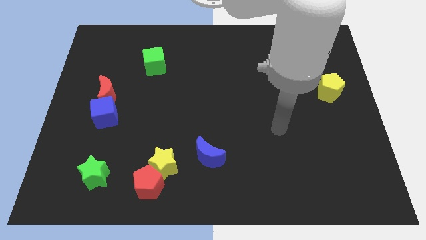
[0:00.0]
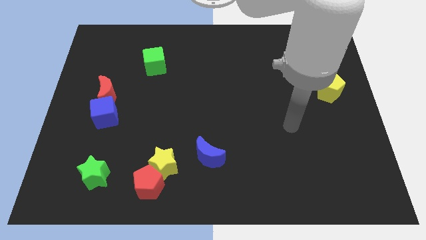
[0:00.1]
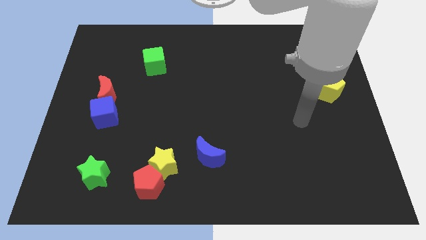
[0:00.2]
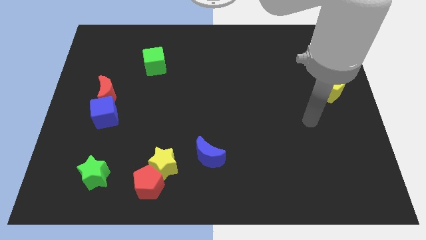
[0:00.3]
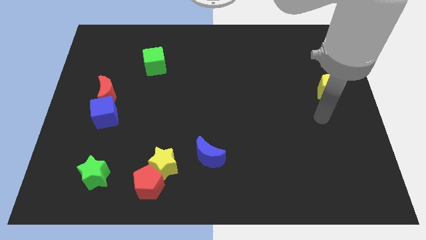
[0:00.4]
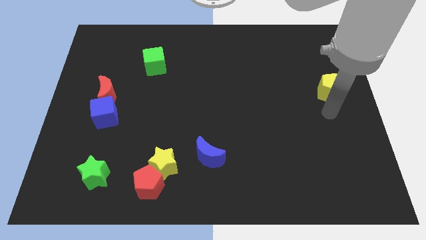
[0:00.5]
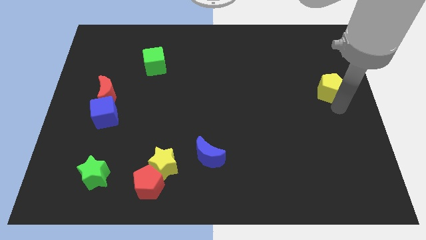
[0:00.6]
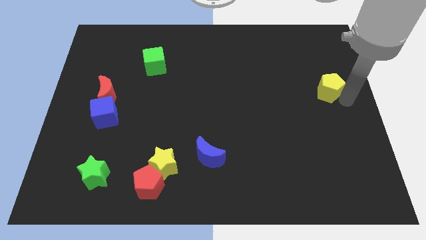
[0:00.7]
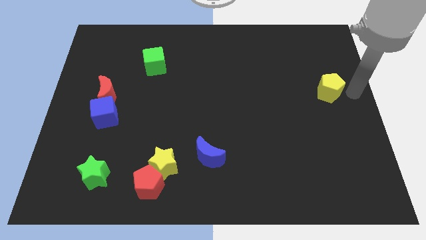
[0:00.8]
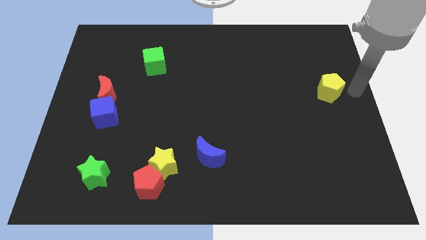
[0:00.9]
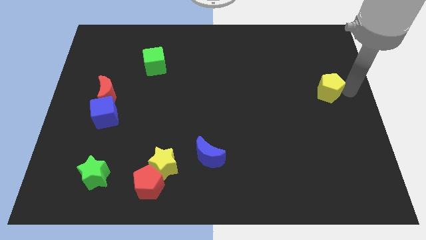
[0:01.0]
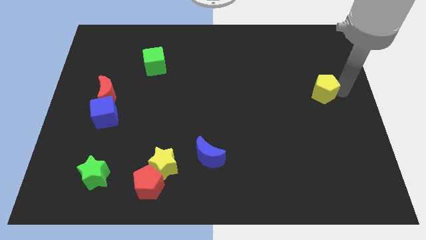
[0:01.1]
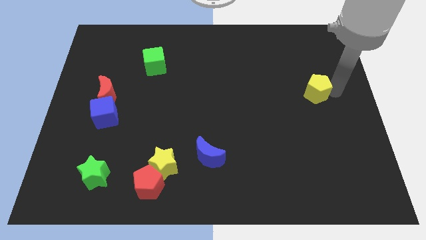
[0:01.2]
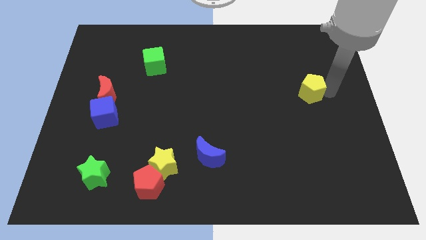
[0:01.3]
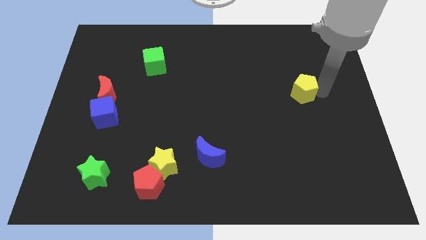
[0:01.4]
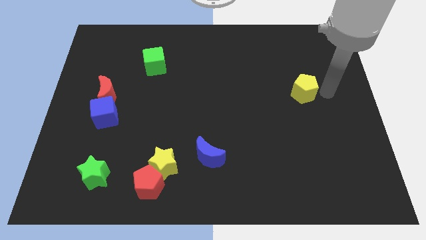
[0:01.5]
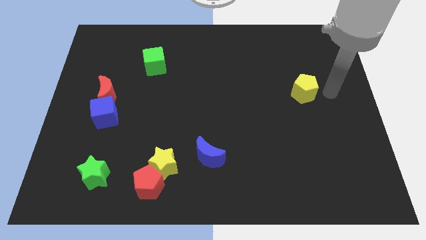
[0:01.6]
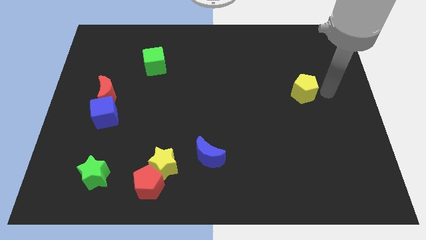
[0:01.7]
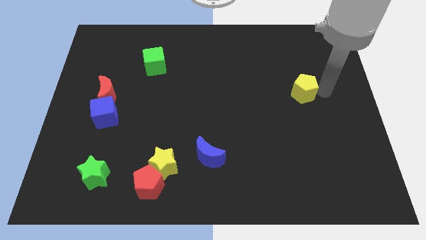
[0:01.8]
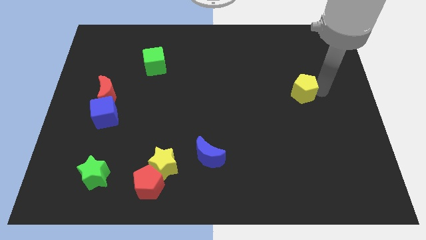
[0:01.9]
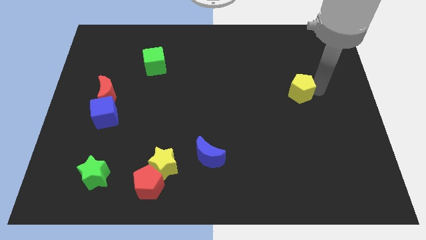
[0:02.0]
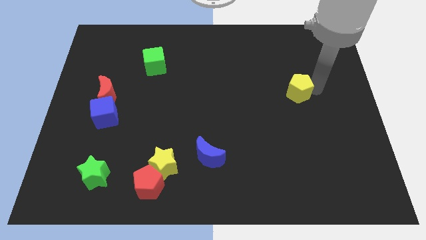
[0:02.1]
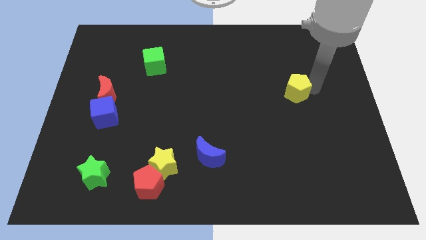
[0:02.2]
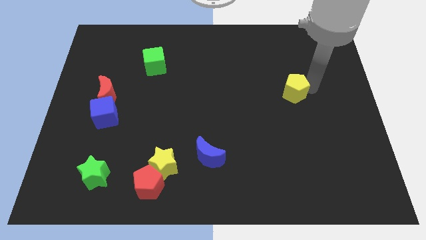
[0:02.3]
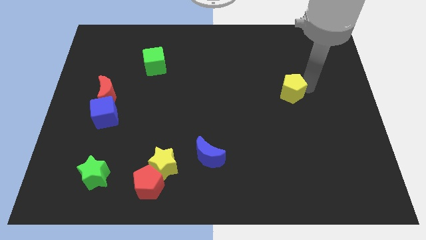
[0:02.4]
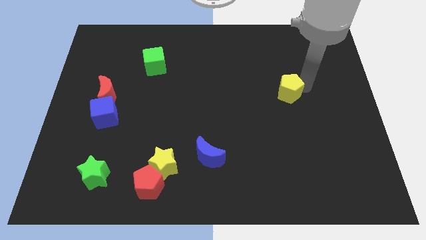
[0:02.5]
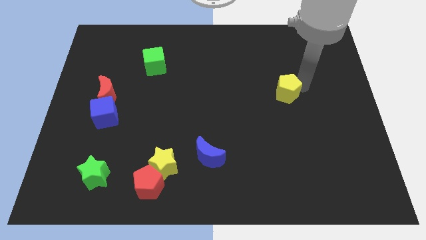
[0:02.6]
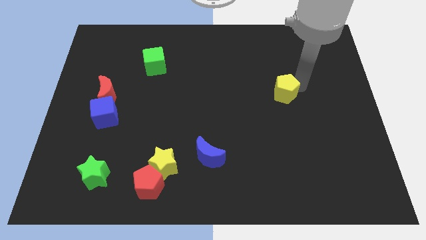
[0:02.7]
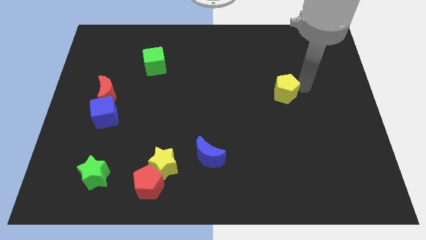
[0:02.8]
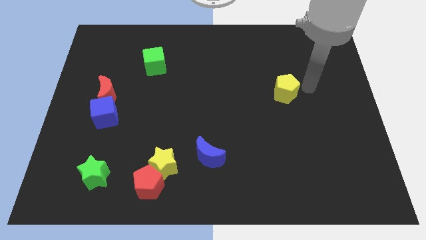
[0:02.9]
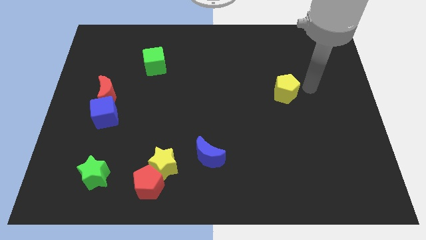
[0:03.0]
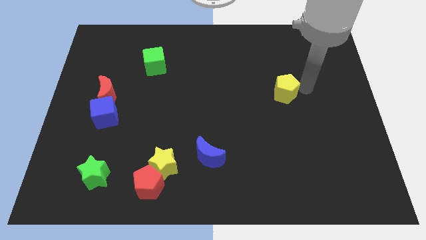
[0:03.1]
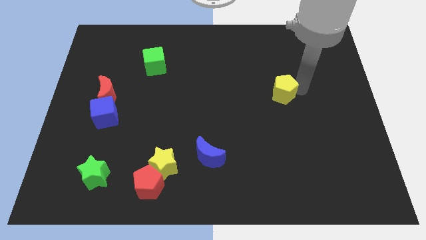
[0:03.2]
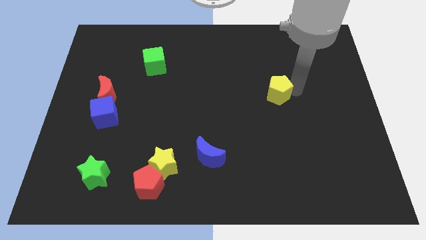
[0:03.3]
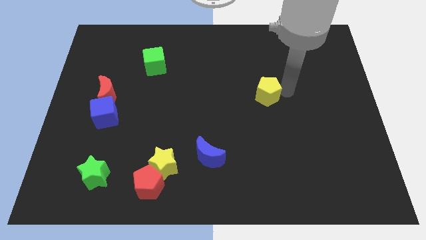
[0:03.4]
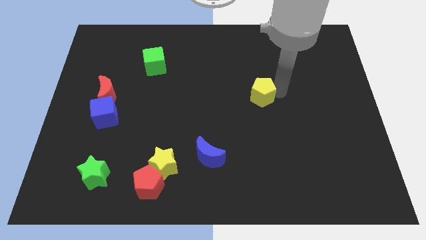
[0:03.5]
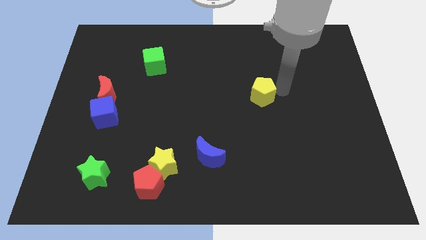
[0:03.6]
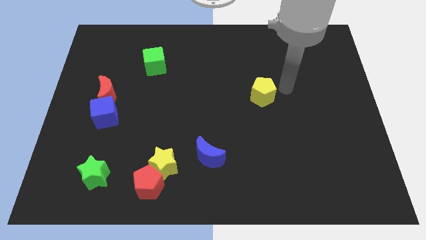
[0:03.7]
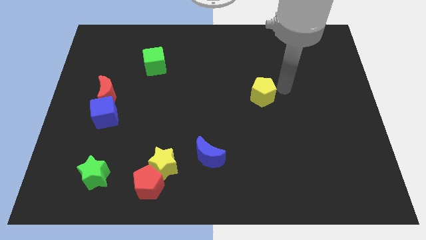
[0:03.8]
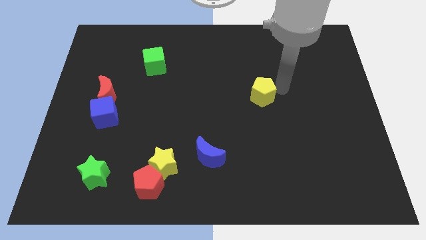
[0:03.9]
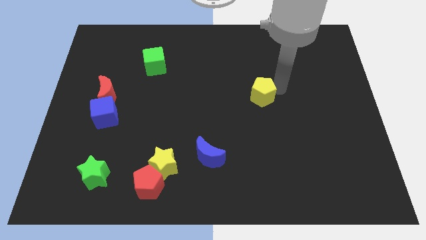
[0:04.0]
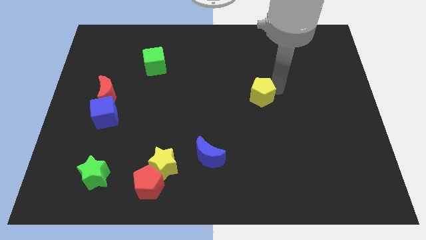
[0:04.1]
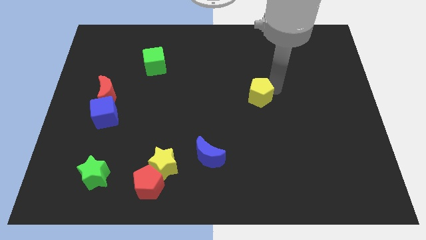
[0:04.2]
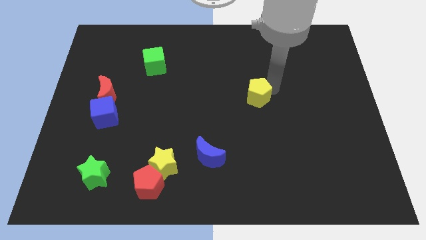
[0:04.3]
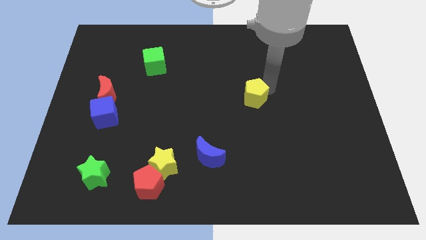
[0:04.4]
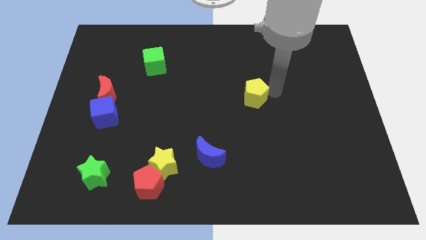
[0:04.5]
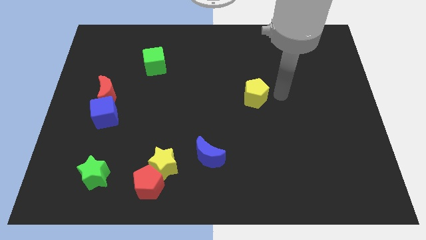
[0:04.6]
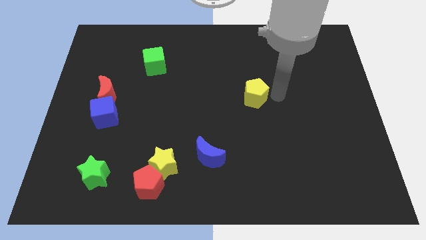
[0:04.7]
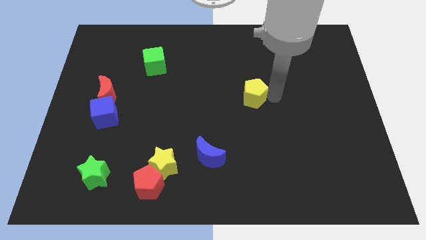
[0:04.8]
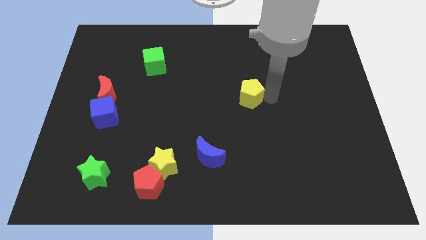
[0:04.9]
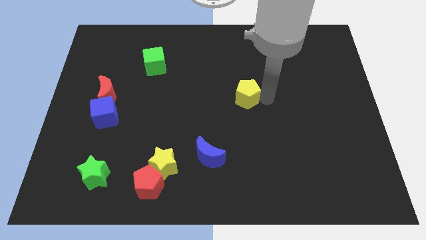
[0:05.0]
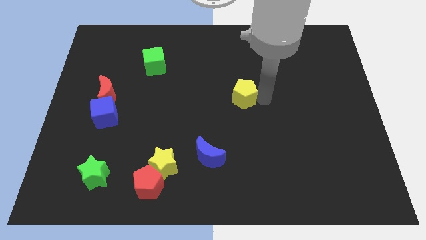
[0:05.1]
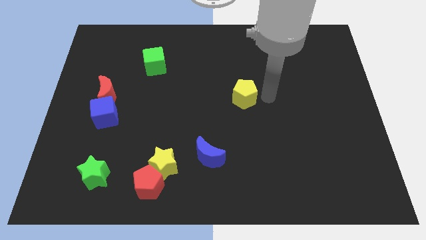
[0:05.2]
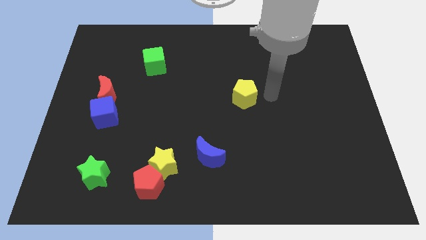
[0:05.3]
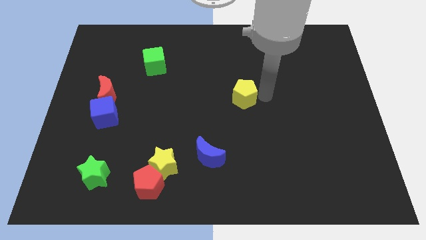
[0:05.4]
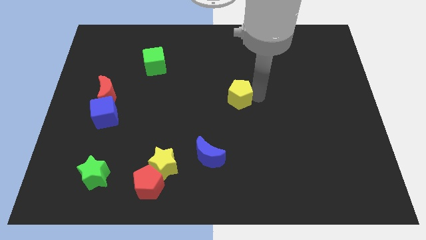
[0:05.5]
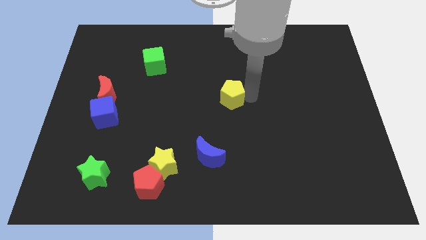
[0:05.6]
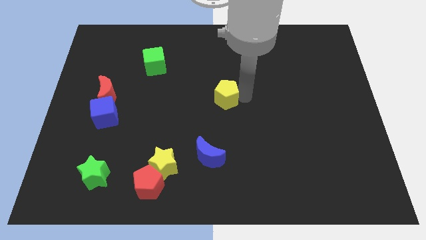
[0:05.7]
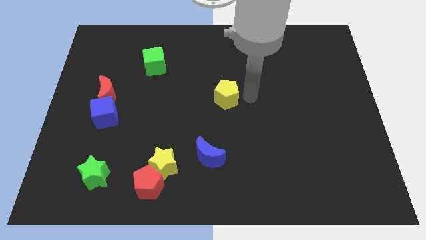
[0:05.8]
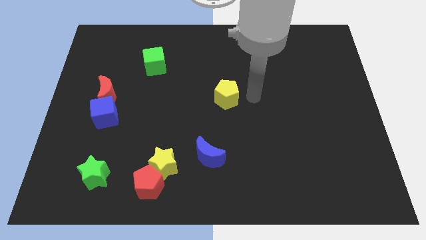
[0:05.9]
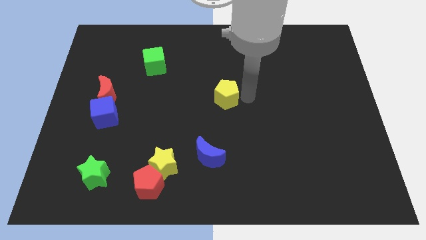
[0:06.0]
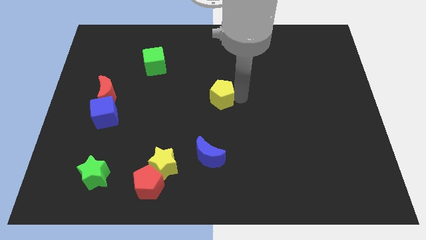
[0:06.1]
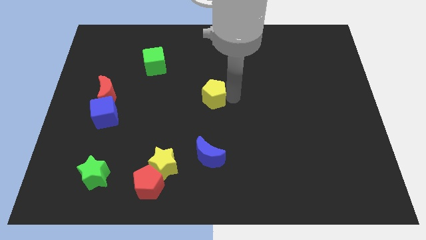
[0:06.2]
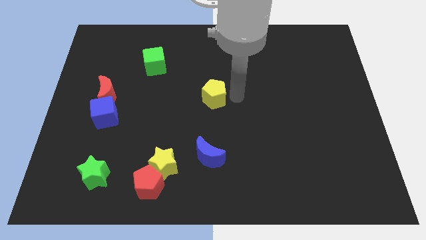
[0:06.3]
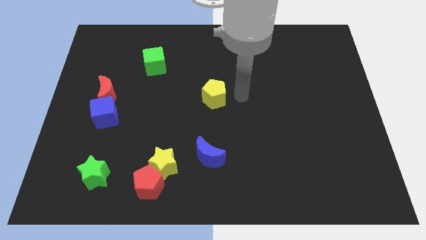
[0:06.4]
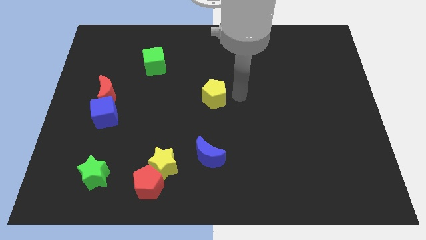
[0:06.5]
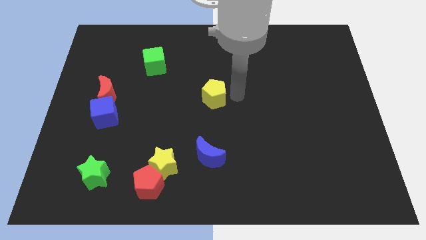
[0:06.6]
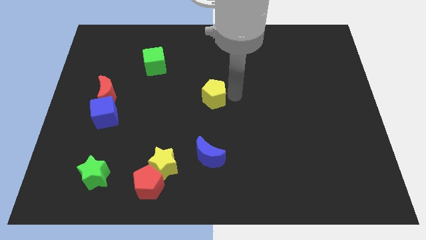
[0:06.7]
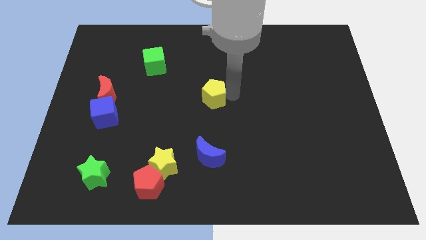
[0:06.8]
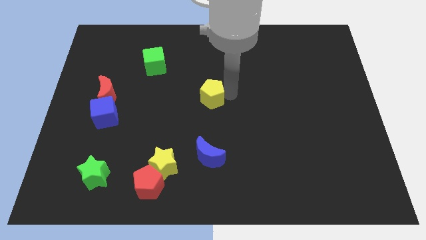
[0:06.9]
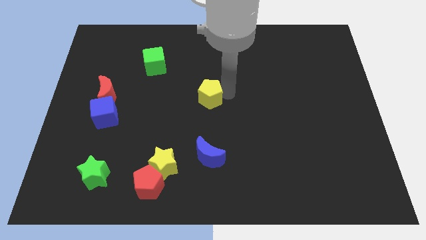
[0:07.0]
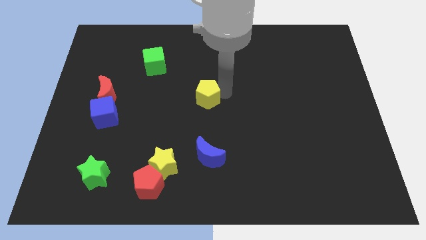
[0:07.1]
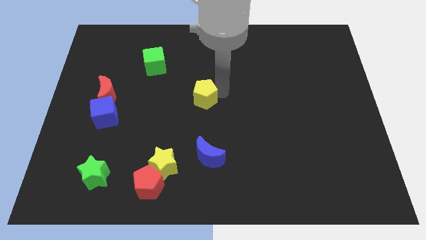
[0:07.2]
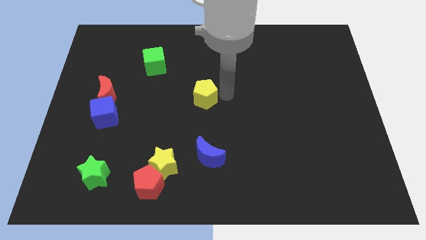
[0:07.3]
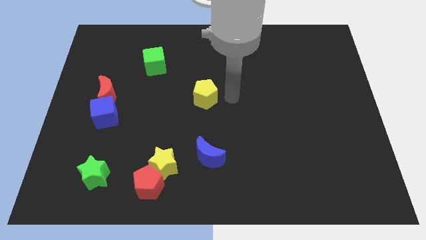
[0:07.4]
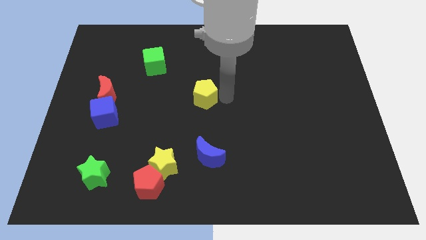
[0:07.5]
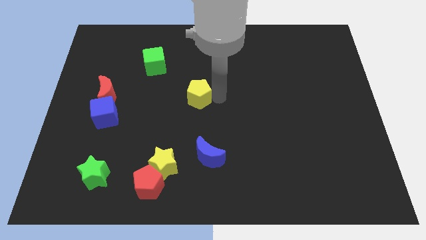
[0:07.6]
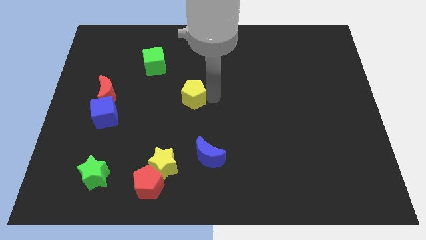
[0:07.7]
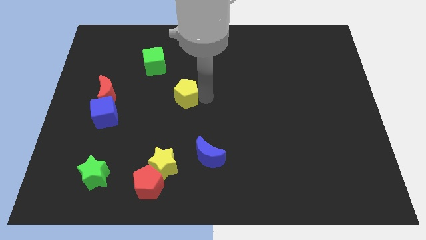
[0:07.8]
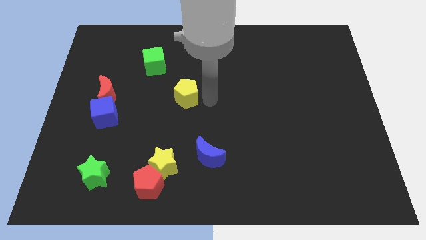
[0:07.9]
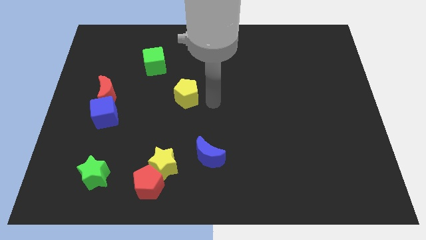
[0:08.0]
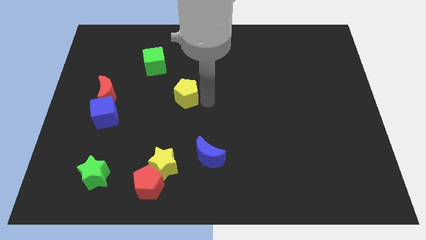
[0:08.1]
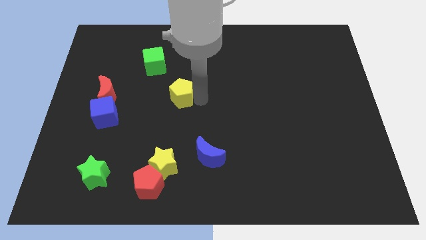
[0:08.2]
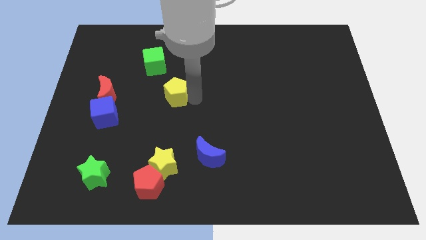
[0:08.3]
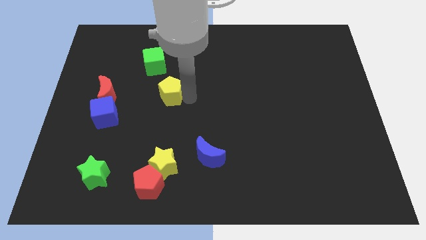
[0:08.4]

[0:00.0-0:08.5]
slide the yellow pentagon right of the red moon
